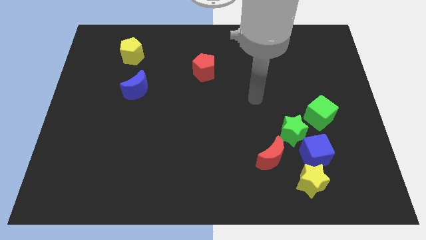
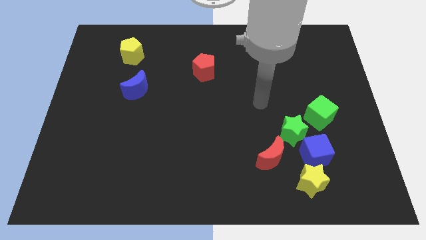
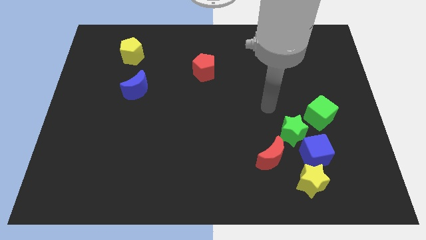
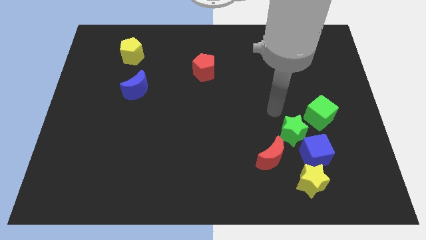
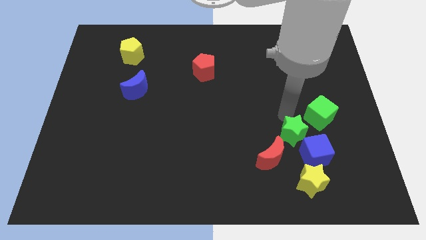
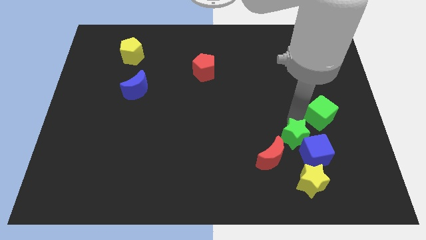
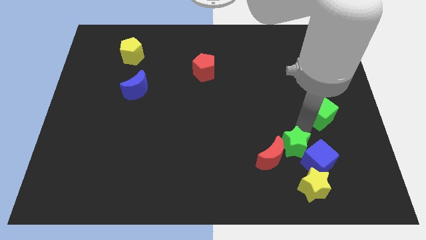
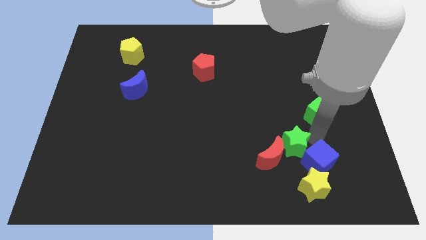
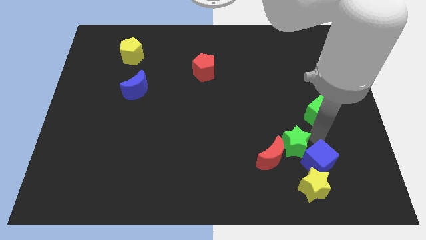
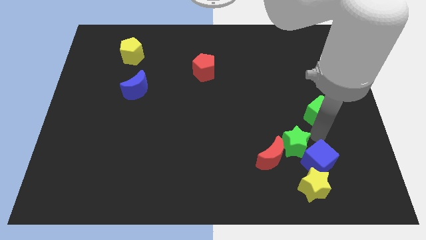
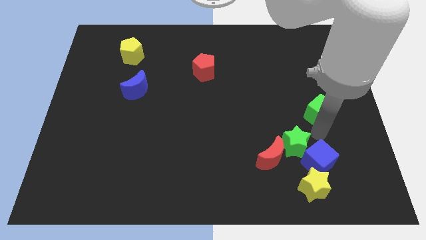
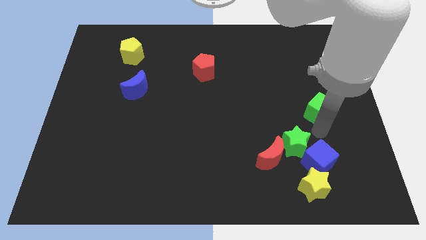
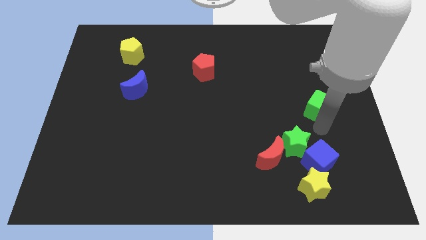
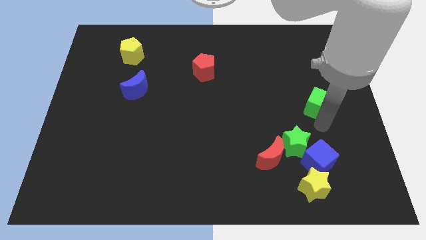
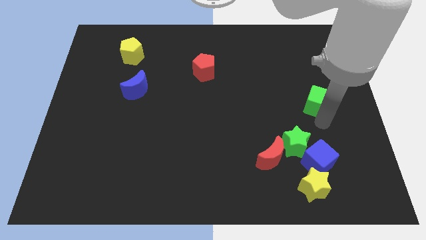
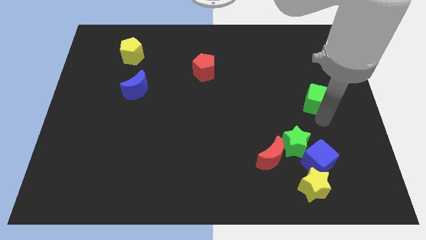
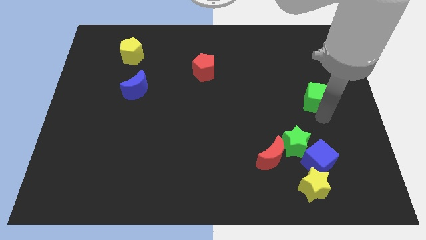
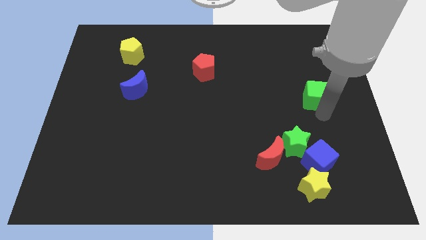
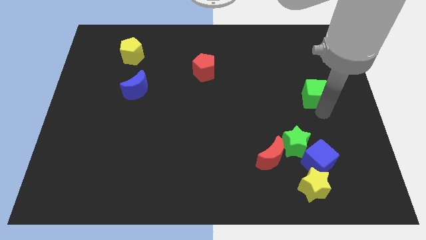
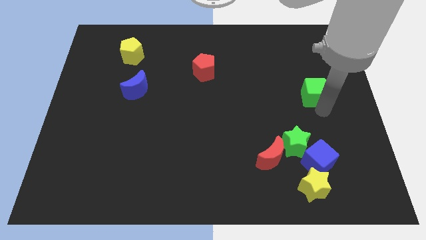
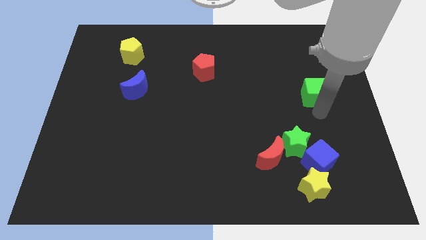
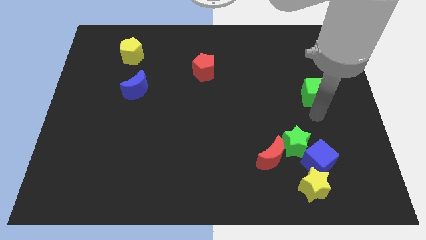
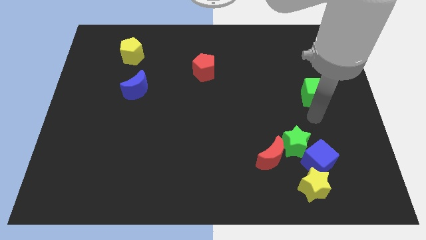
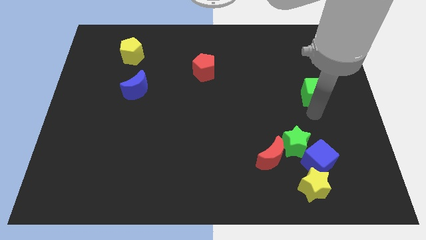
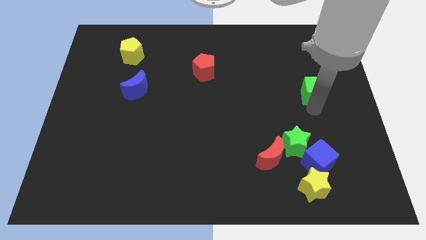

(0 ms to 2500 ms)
slide the green cube upwards somewhat

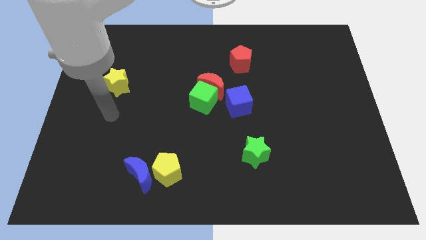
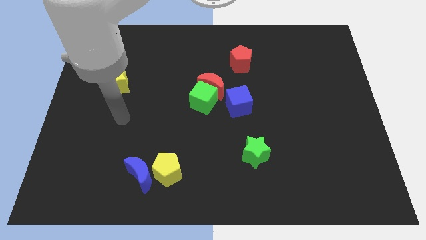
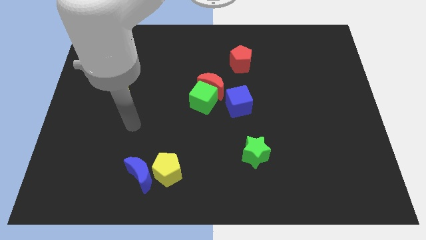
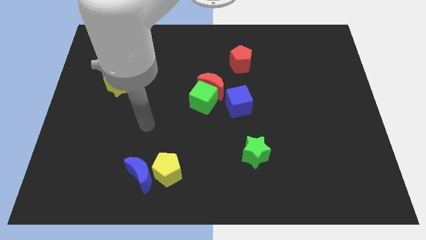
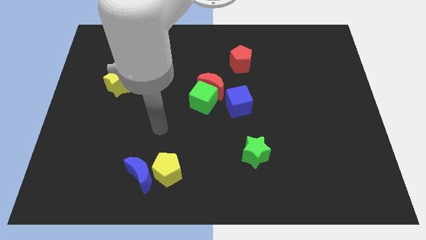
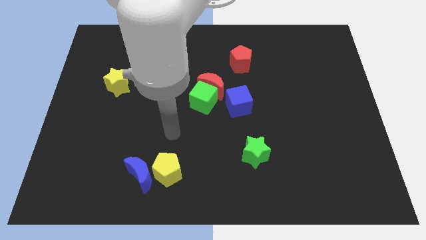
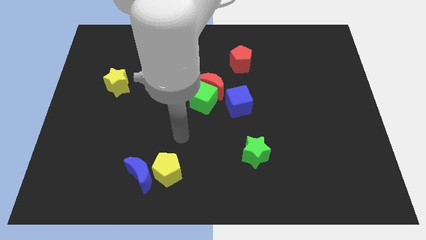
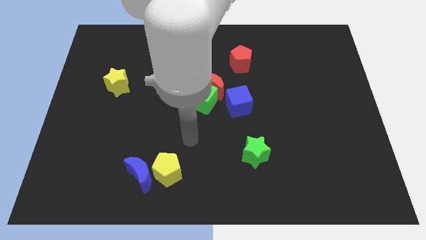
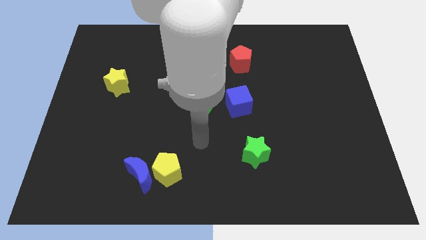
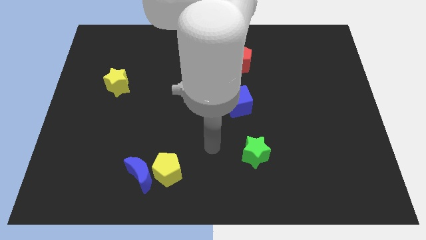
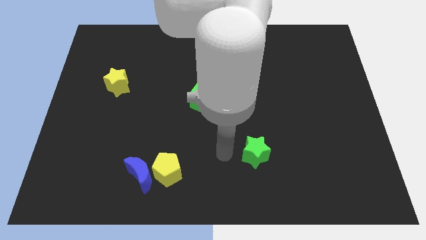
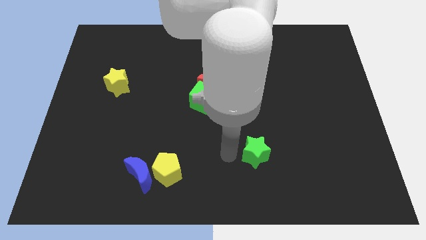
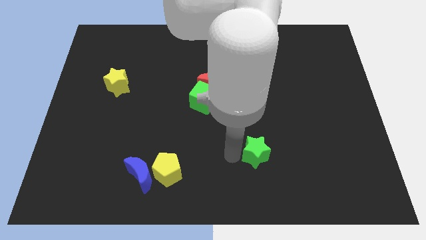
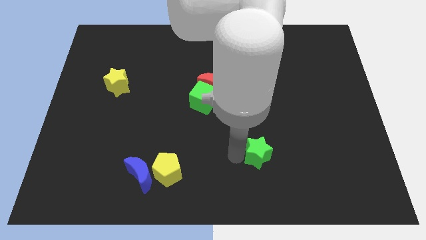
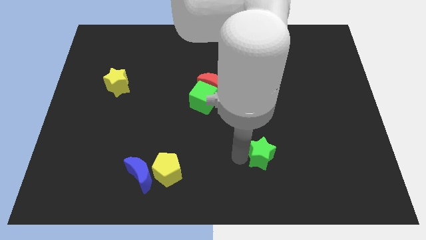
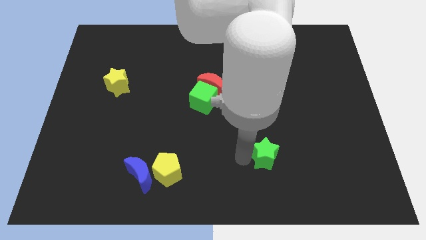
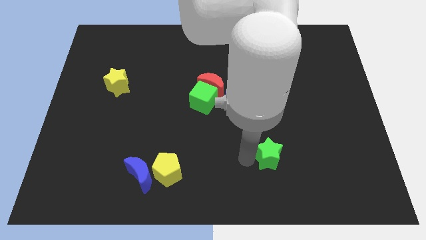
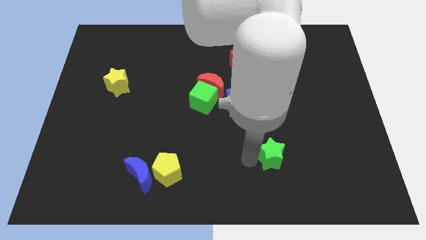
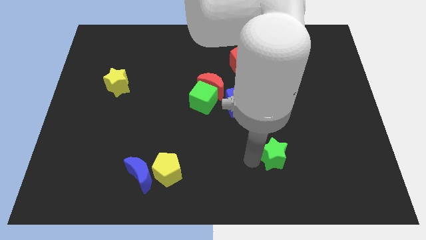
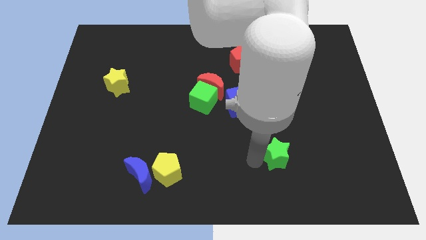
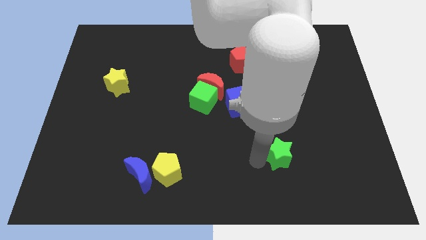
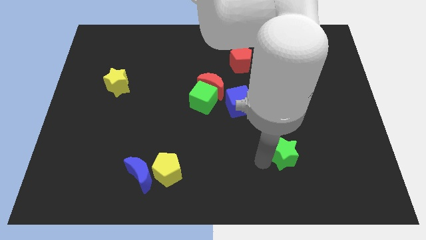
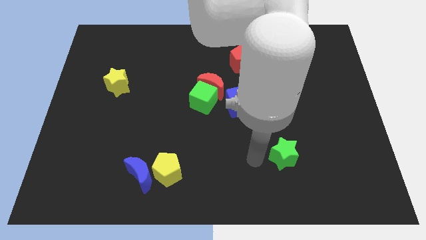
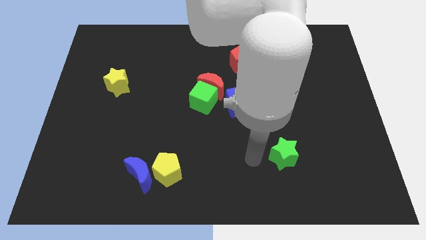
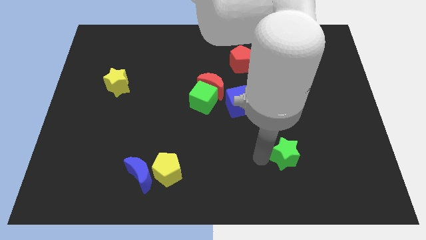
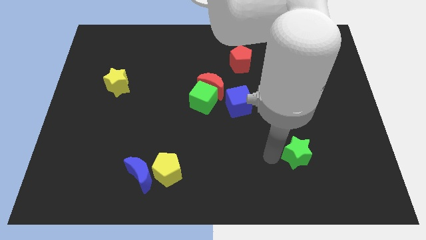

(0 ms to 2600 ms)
slide the green star right slightly

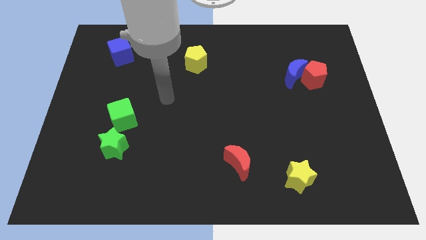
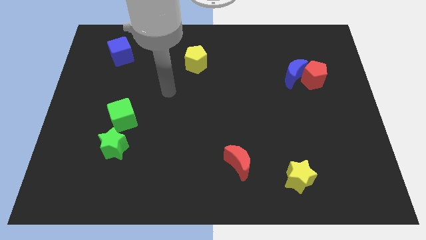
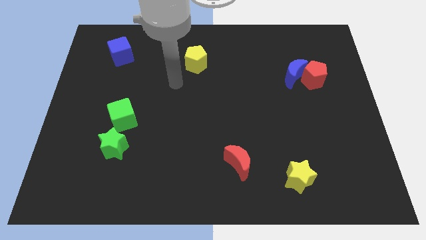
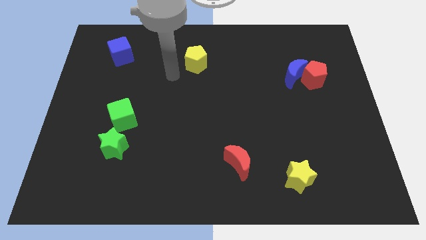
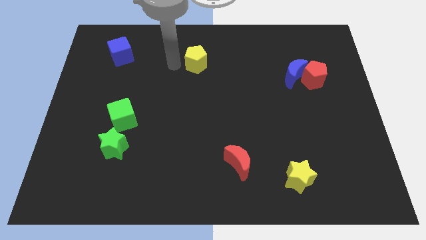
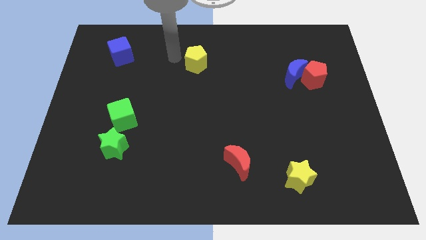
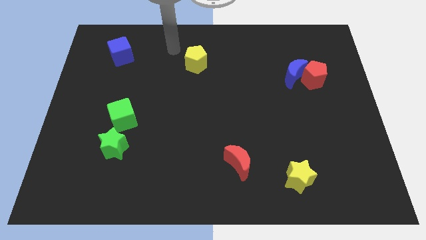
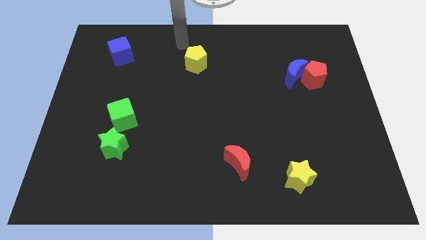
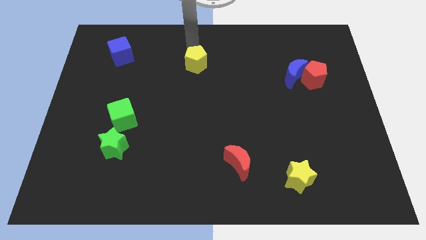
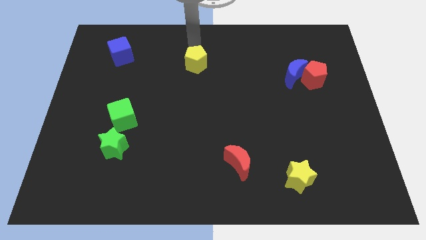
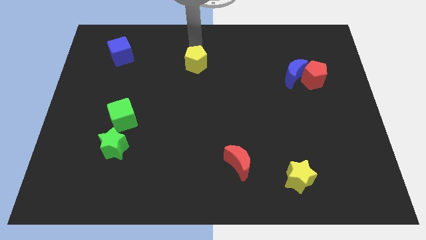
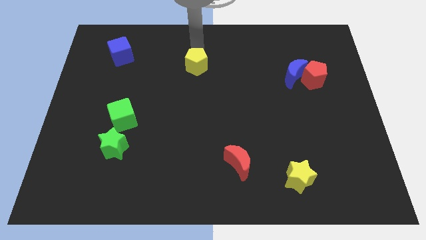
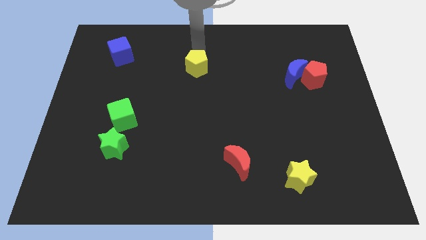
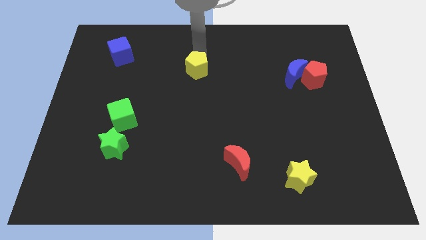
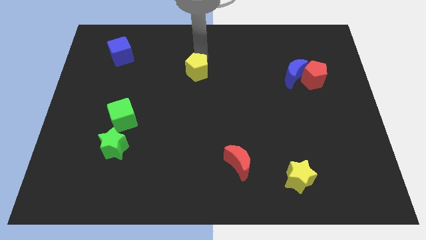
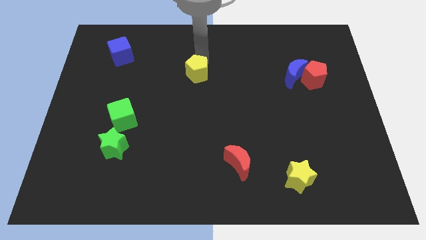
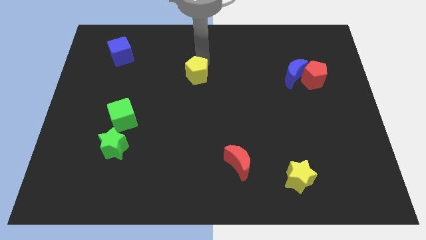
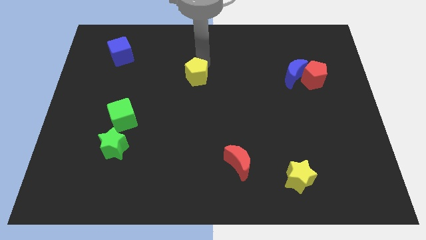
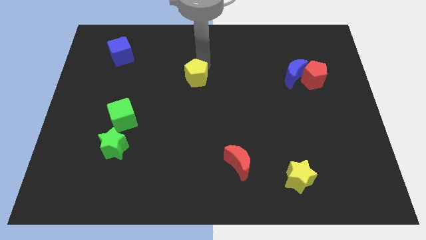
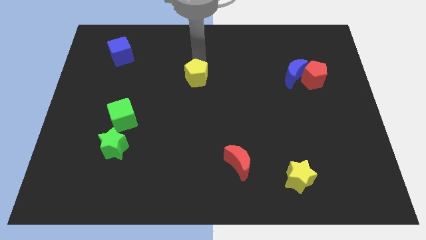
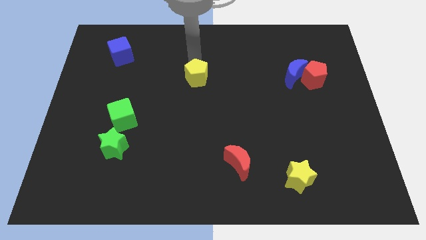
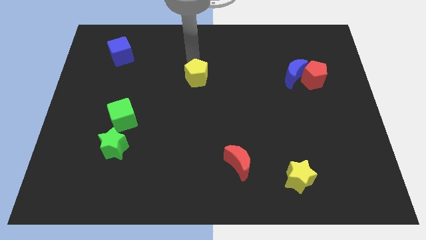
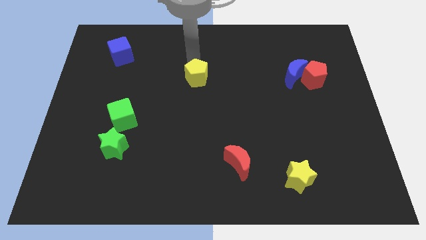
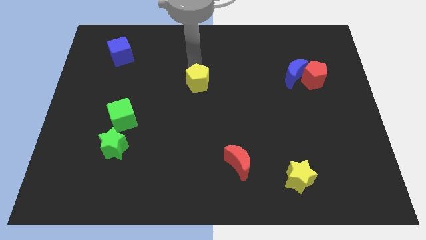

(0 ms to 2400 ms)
push the yellow pentagon a little bit downwards

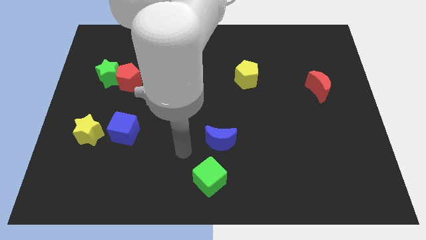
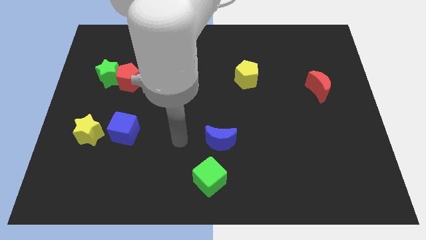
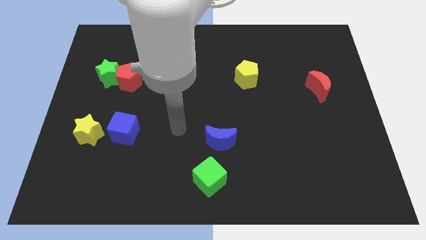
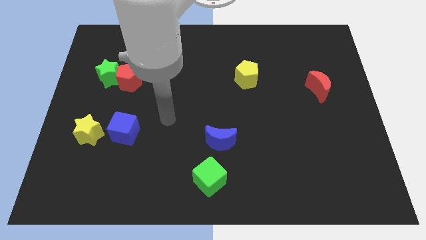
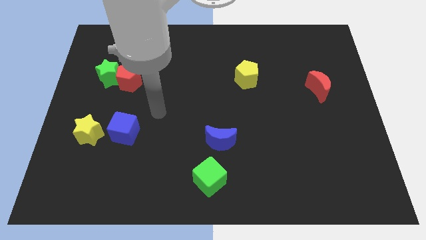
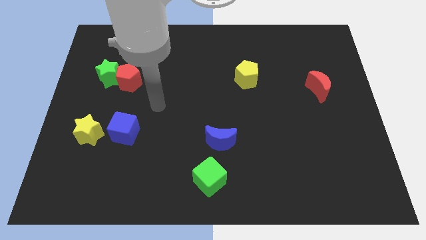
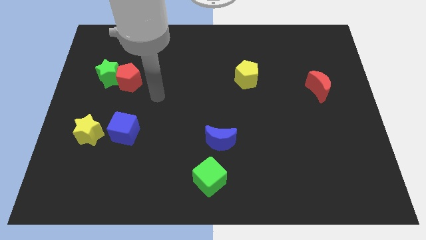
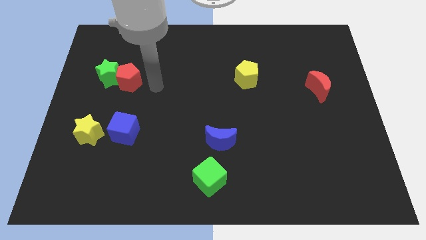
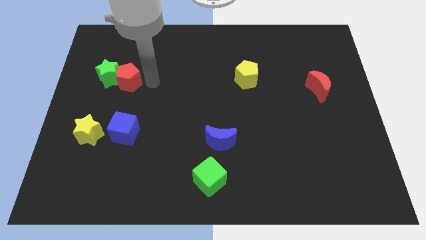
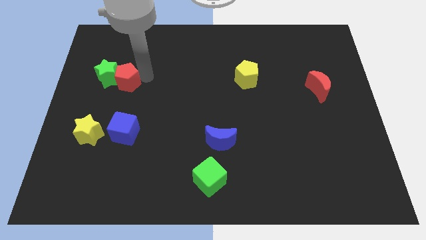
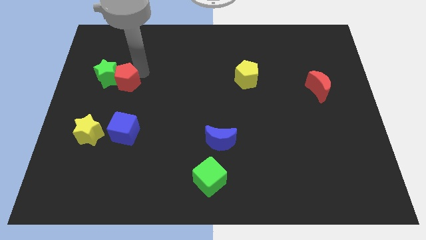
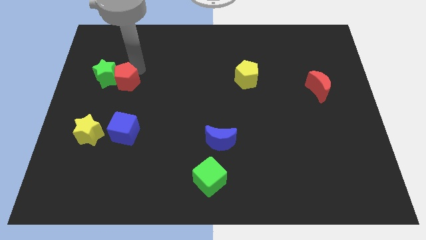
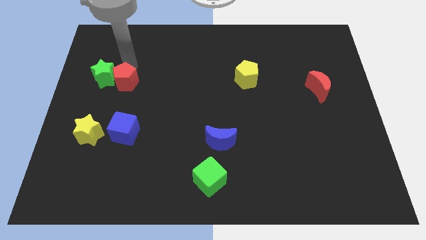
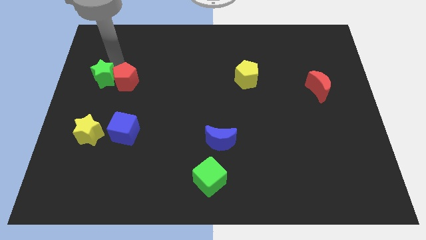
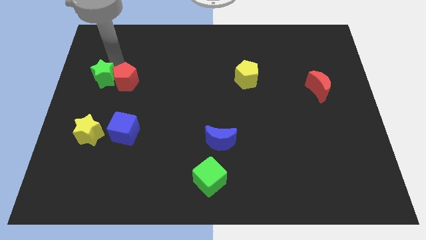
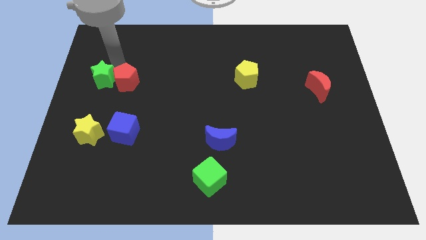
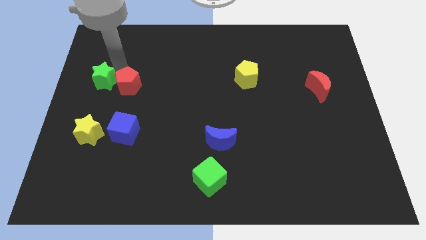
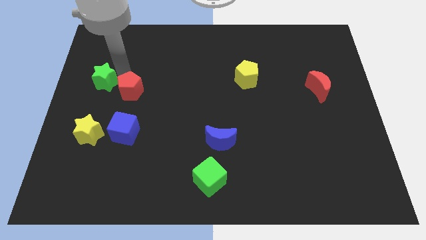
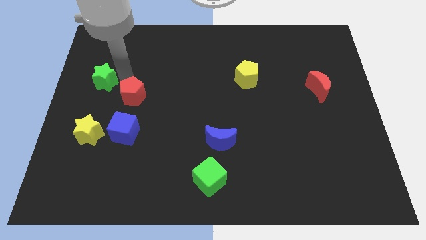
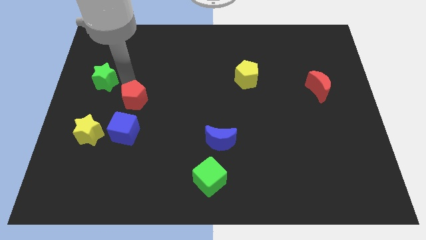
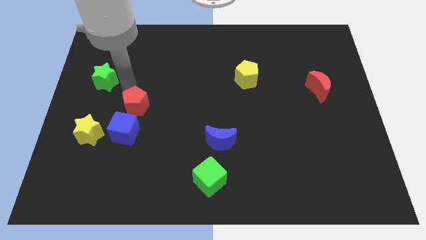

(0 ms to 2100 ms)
slightly slide the red pentagon down
